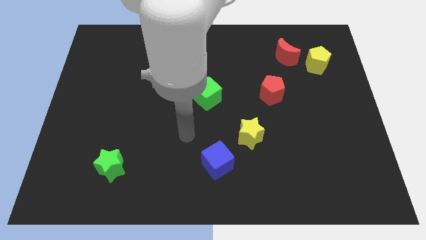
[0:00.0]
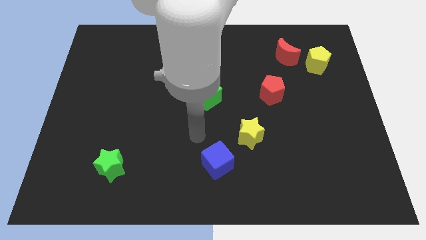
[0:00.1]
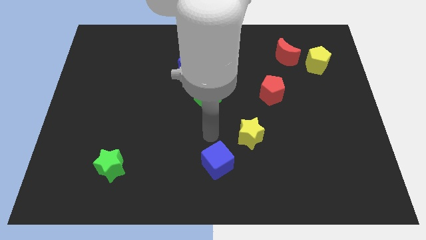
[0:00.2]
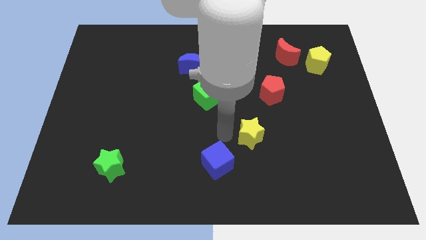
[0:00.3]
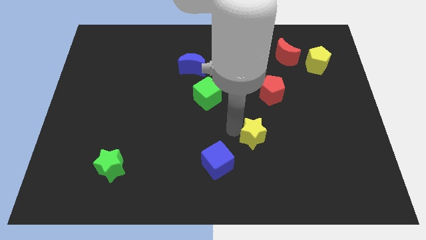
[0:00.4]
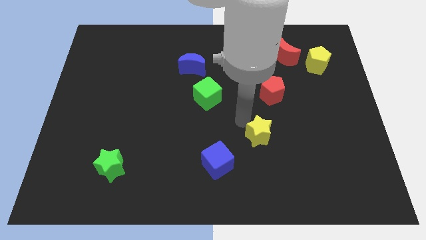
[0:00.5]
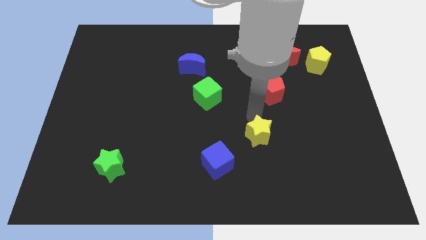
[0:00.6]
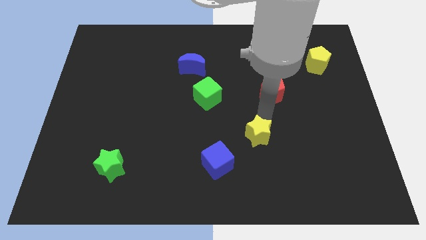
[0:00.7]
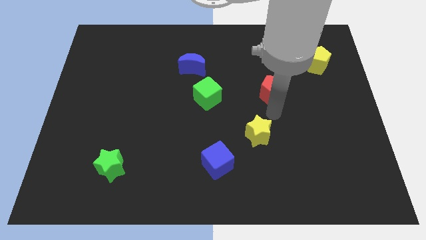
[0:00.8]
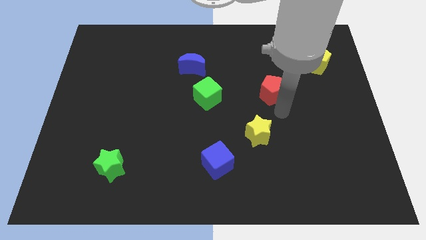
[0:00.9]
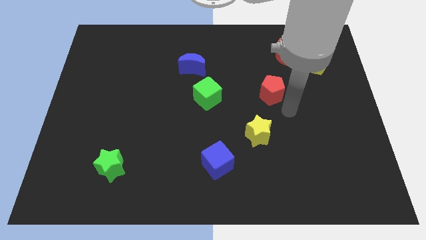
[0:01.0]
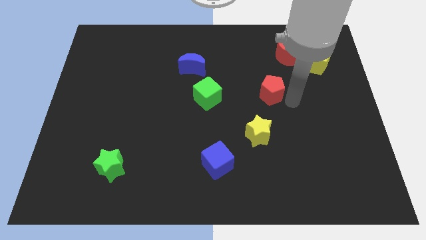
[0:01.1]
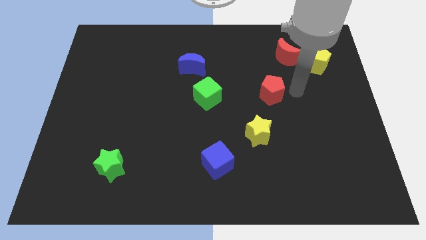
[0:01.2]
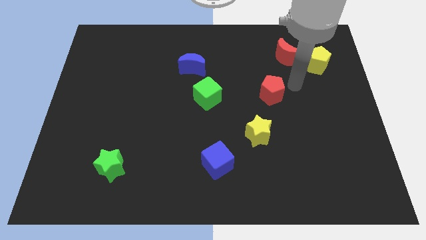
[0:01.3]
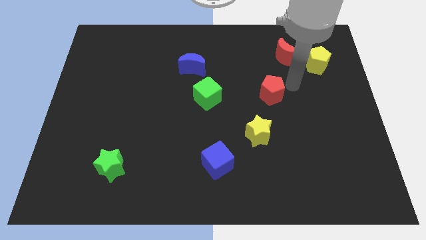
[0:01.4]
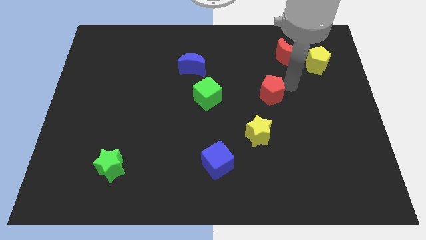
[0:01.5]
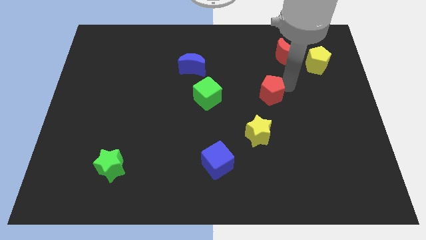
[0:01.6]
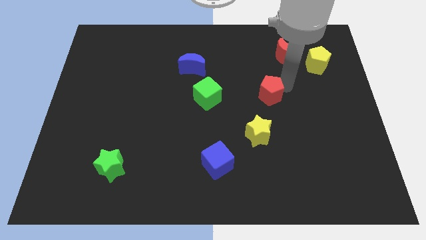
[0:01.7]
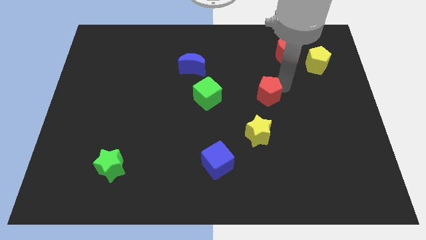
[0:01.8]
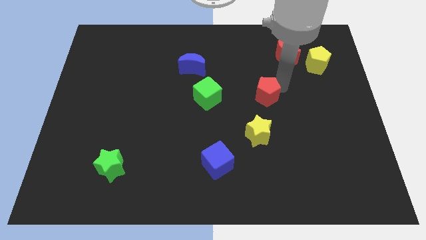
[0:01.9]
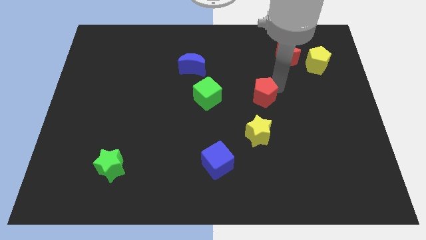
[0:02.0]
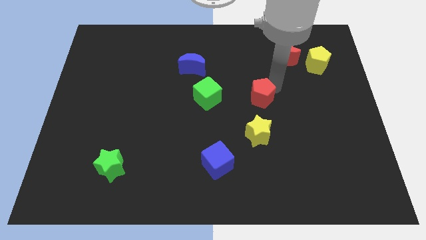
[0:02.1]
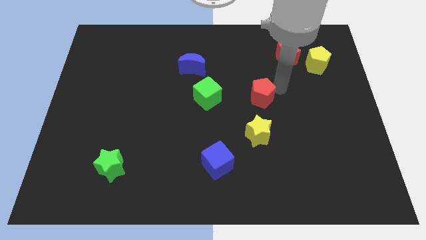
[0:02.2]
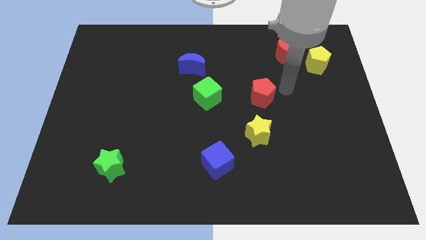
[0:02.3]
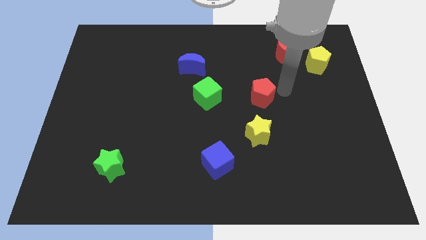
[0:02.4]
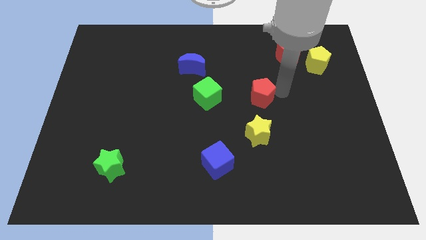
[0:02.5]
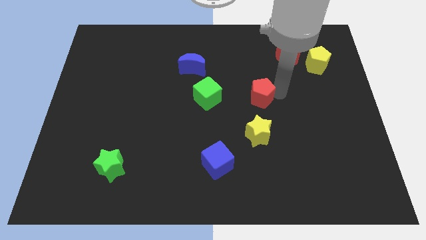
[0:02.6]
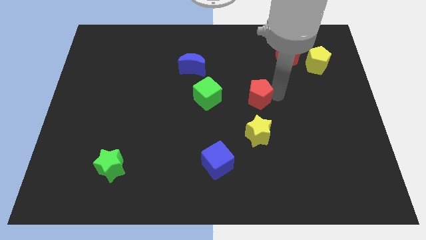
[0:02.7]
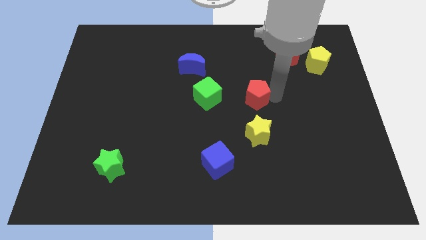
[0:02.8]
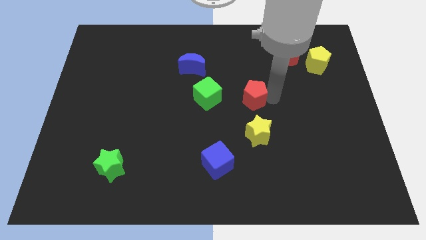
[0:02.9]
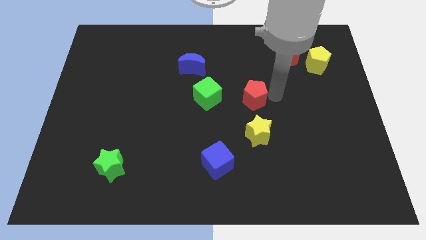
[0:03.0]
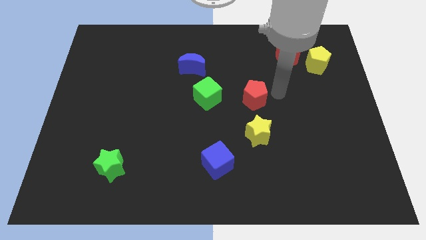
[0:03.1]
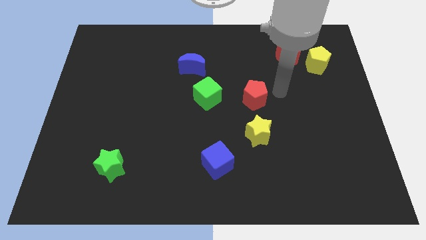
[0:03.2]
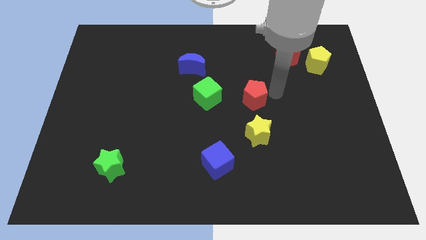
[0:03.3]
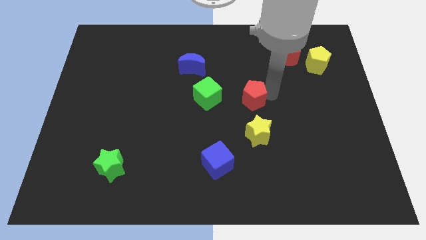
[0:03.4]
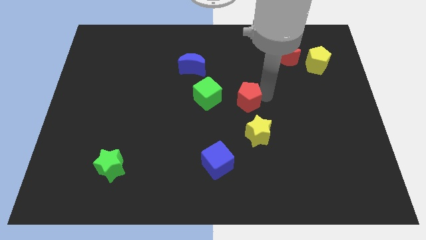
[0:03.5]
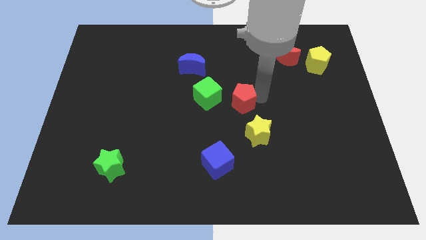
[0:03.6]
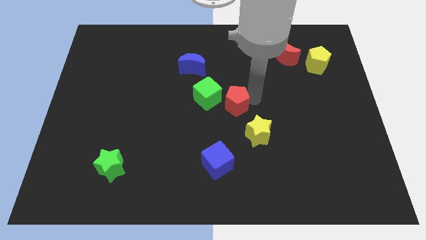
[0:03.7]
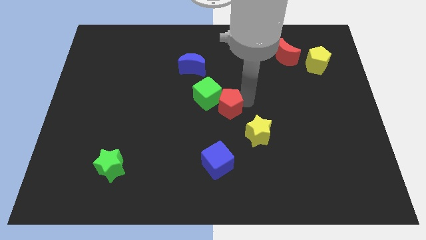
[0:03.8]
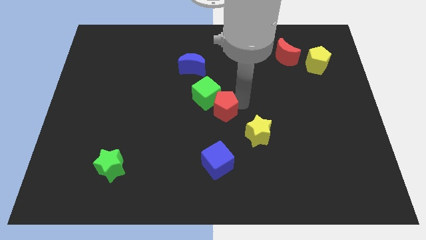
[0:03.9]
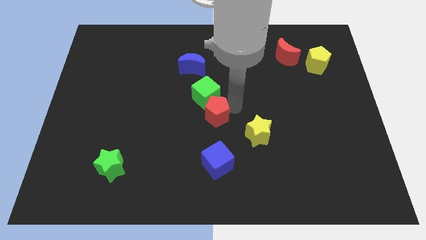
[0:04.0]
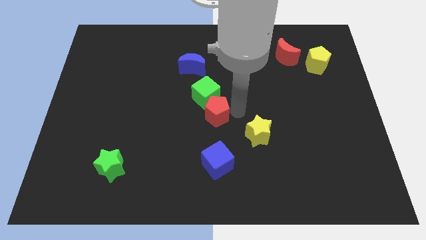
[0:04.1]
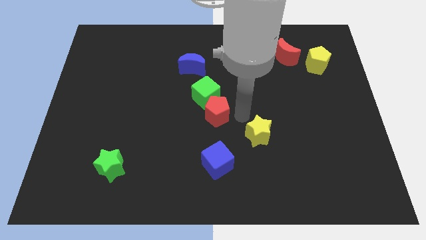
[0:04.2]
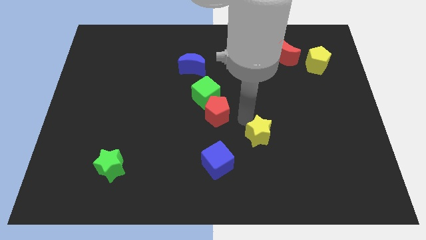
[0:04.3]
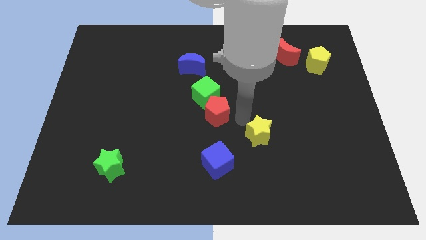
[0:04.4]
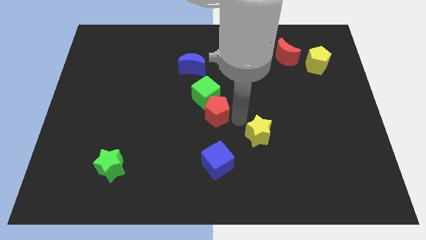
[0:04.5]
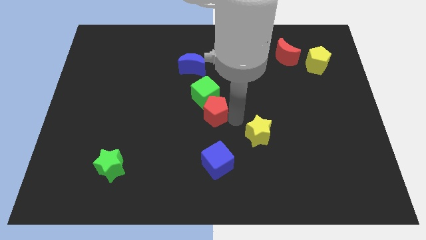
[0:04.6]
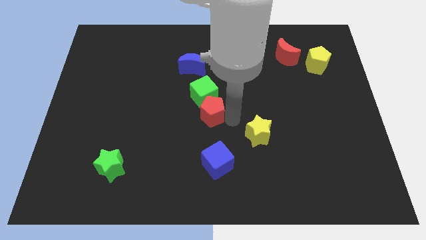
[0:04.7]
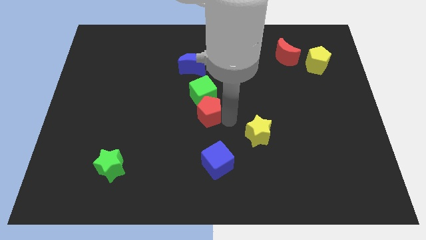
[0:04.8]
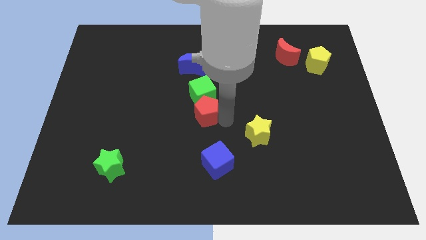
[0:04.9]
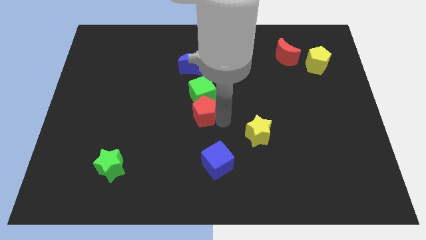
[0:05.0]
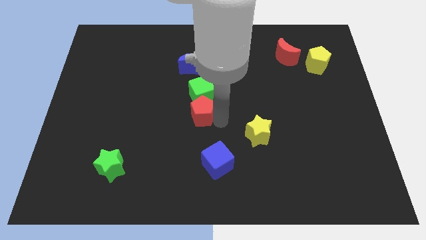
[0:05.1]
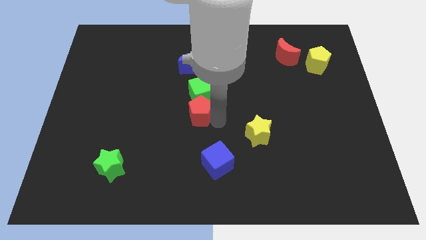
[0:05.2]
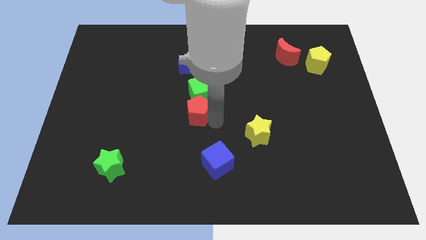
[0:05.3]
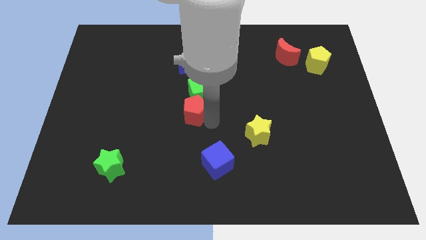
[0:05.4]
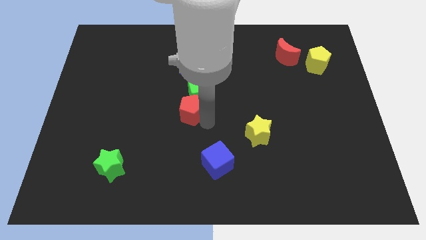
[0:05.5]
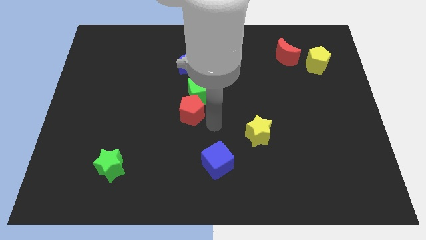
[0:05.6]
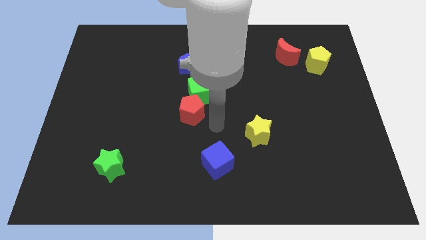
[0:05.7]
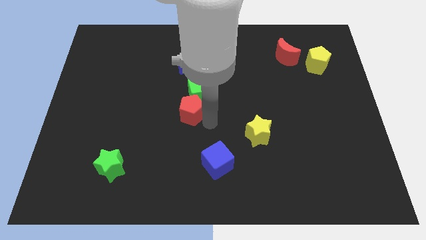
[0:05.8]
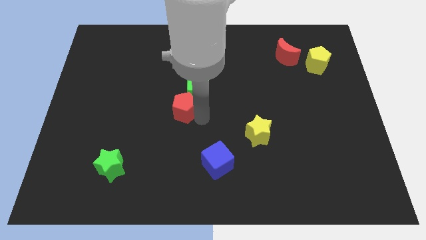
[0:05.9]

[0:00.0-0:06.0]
push the red pentagon left

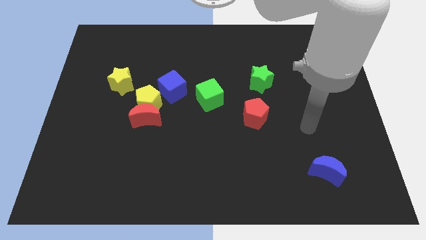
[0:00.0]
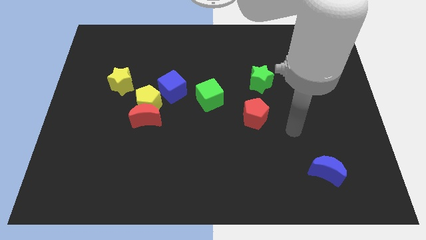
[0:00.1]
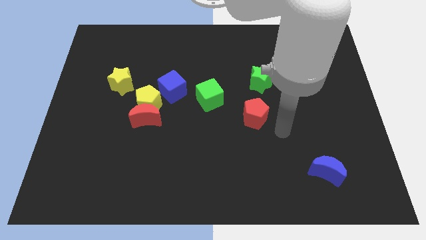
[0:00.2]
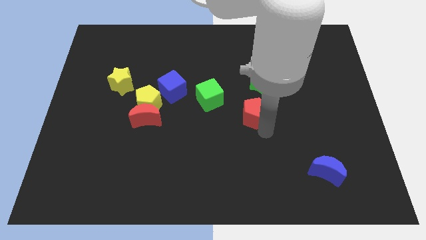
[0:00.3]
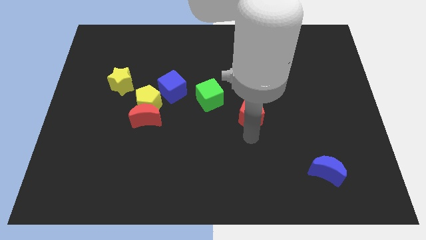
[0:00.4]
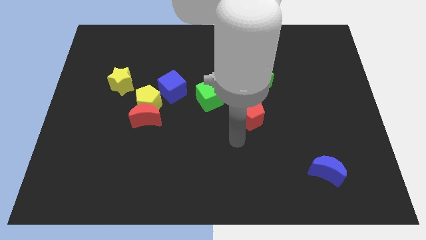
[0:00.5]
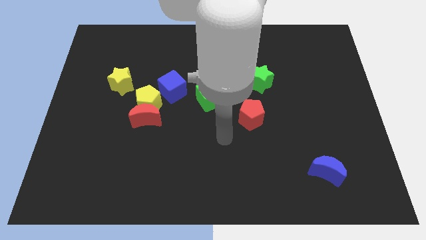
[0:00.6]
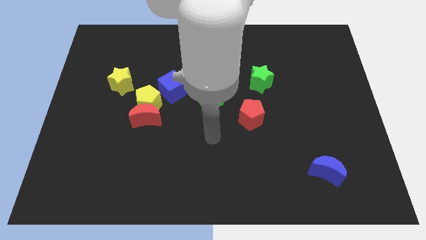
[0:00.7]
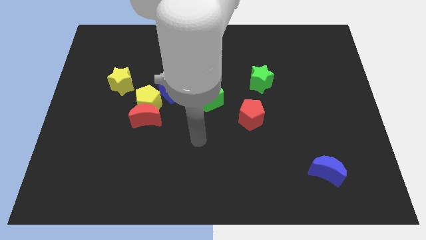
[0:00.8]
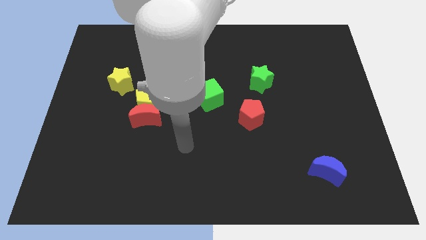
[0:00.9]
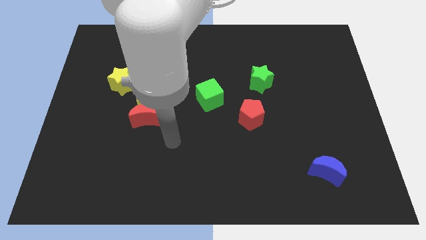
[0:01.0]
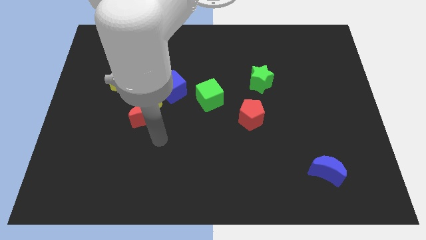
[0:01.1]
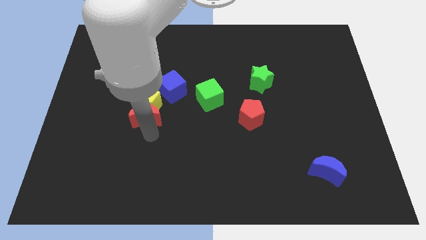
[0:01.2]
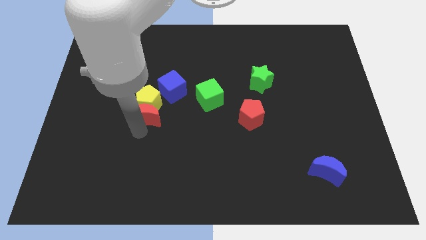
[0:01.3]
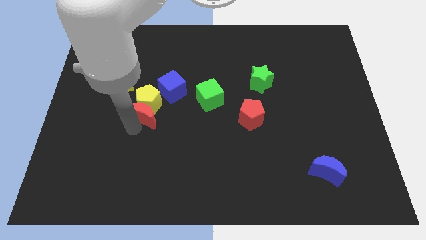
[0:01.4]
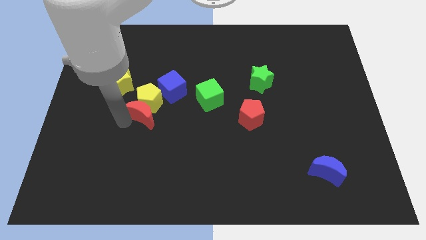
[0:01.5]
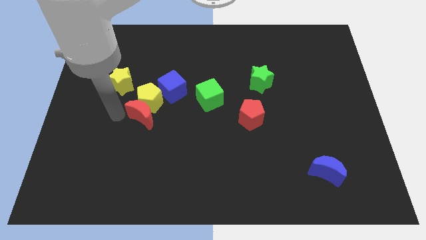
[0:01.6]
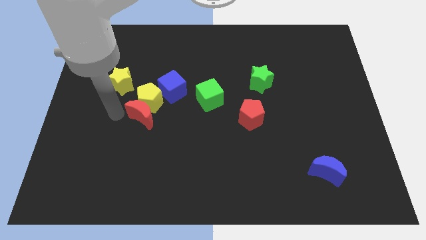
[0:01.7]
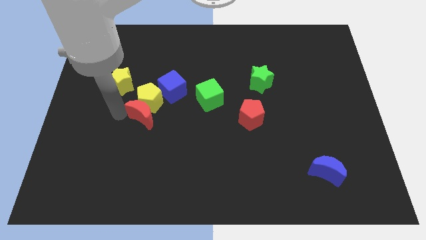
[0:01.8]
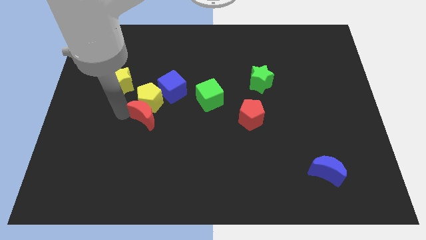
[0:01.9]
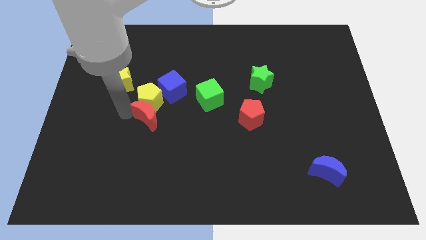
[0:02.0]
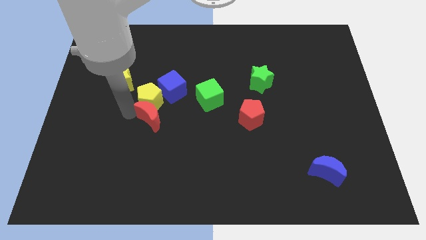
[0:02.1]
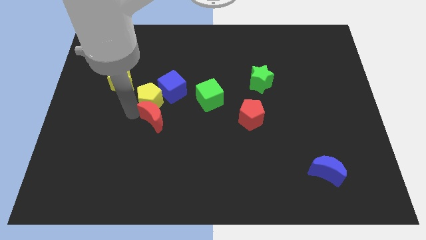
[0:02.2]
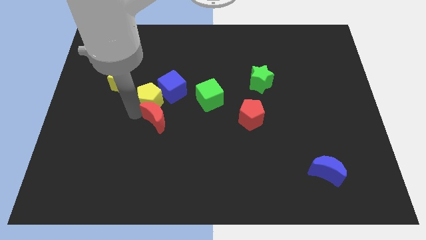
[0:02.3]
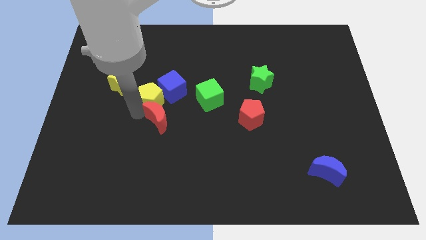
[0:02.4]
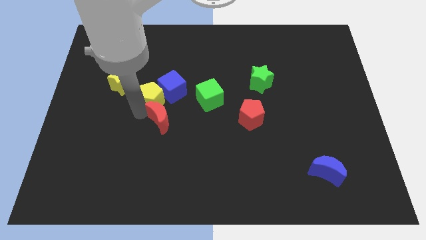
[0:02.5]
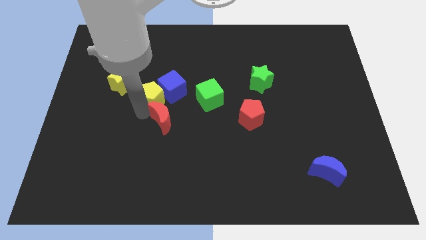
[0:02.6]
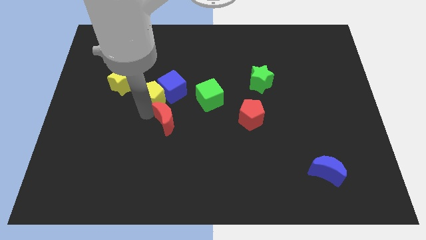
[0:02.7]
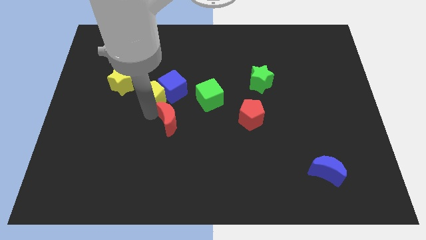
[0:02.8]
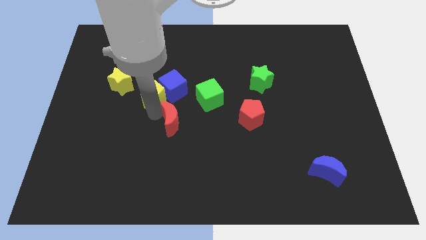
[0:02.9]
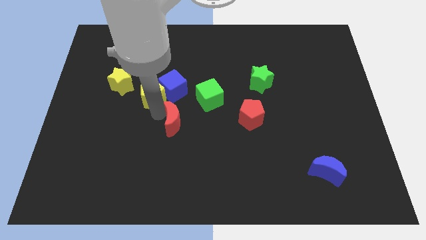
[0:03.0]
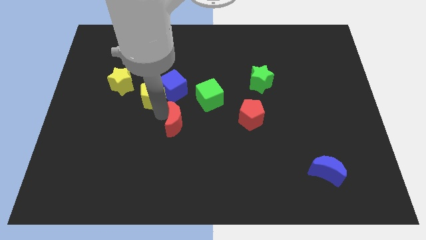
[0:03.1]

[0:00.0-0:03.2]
move the red moon slightly to the right
